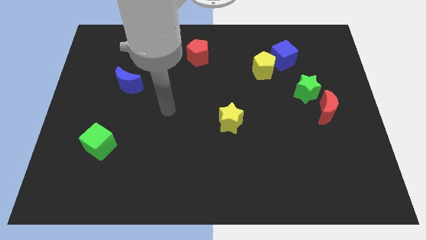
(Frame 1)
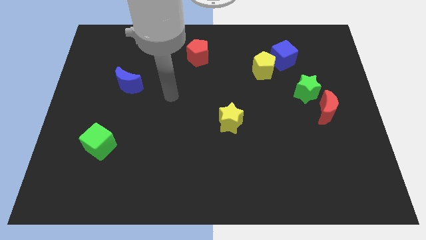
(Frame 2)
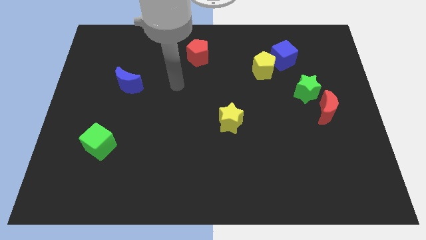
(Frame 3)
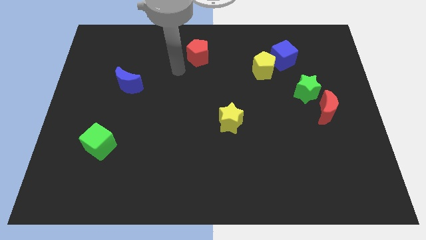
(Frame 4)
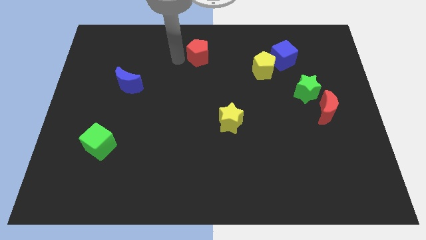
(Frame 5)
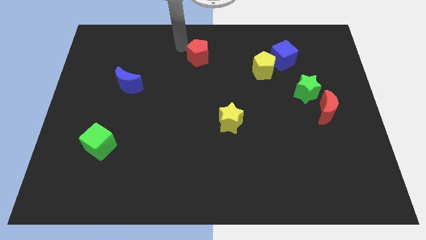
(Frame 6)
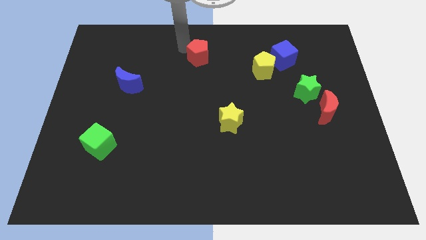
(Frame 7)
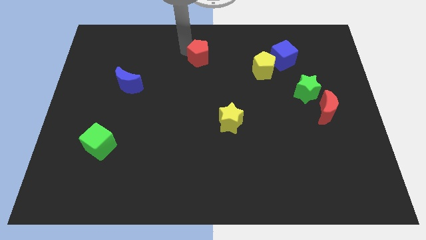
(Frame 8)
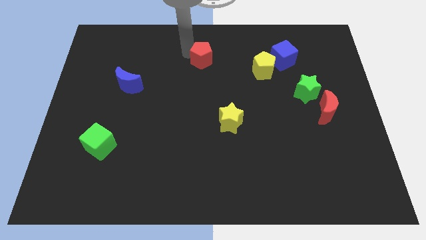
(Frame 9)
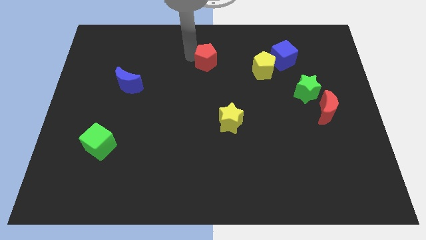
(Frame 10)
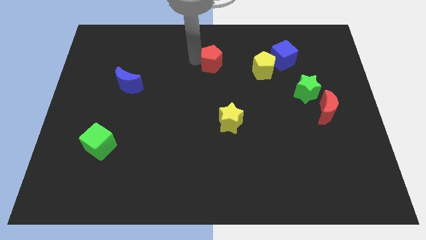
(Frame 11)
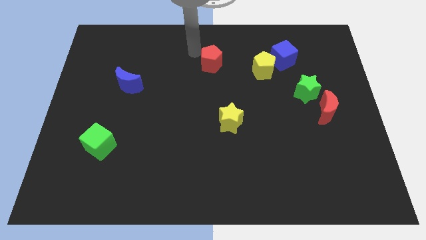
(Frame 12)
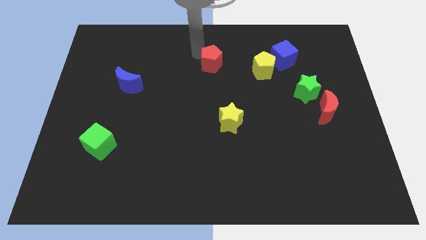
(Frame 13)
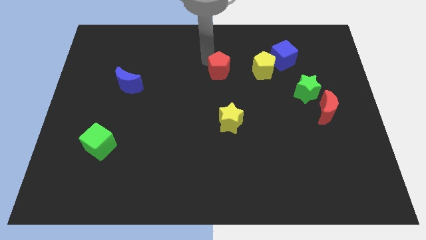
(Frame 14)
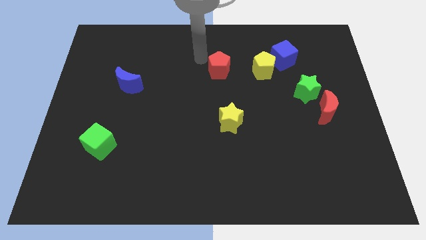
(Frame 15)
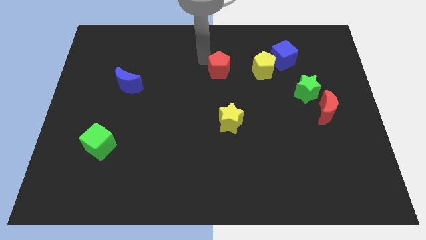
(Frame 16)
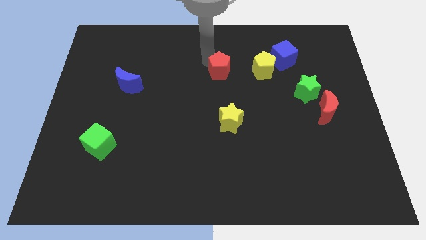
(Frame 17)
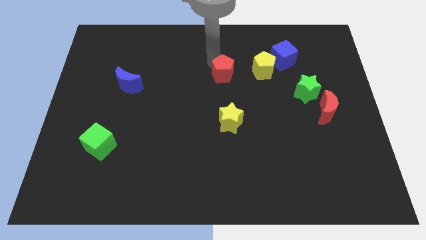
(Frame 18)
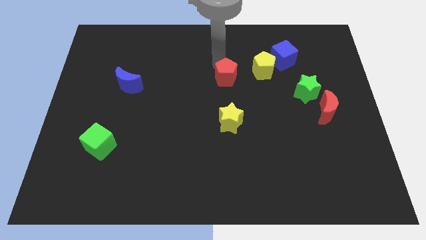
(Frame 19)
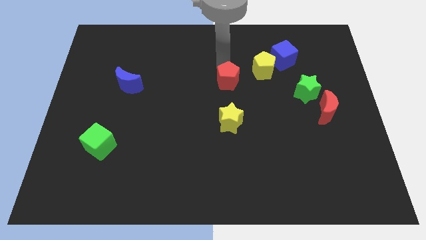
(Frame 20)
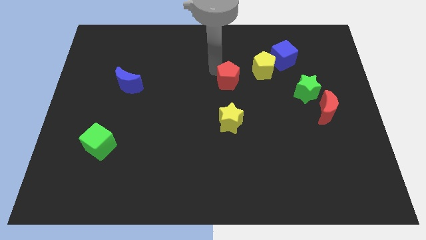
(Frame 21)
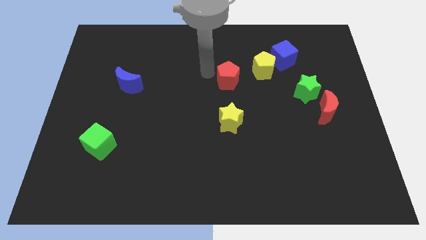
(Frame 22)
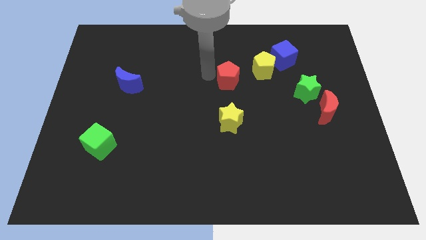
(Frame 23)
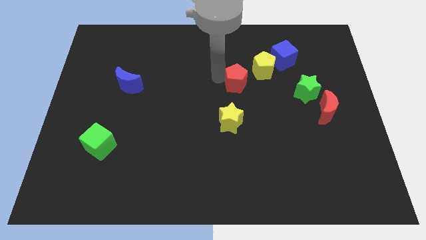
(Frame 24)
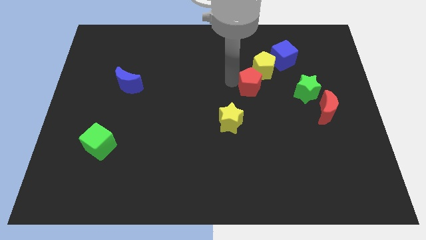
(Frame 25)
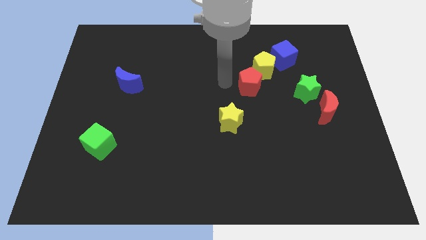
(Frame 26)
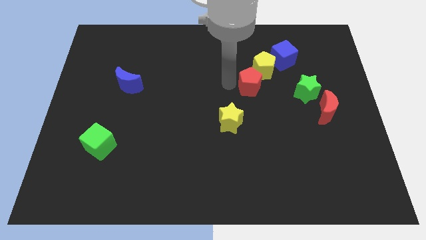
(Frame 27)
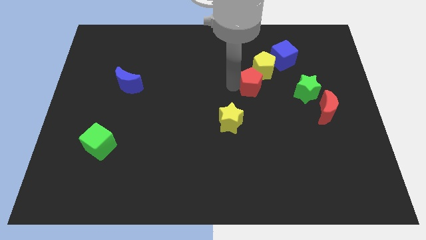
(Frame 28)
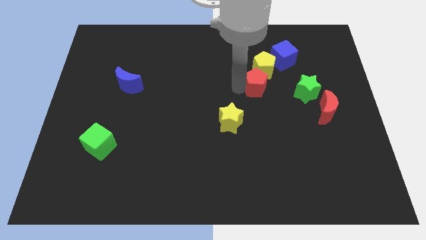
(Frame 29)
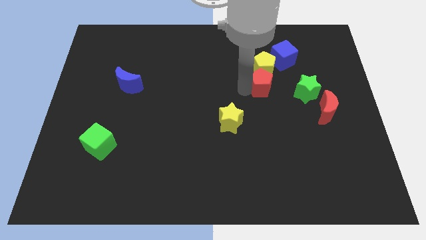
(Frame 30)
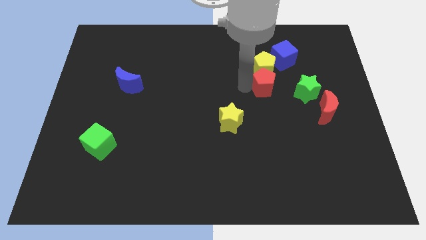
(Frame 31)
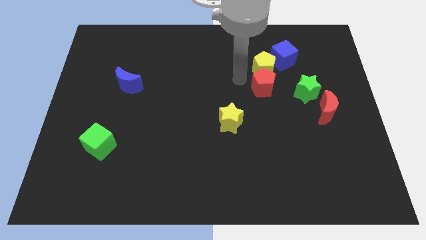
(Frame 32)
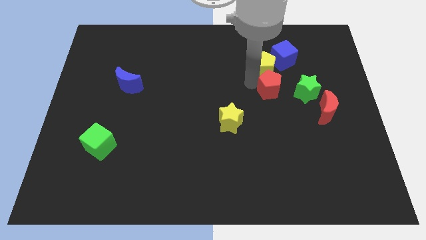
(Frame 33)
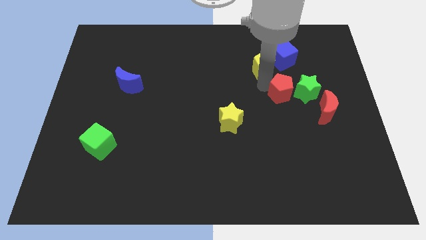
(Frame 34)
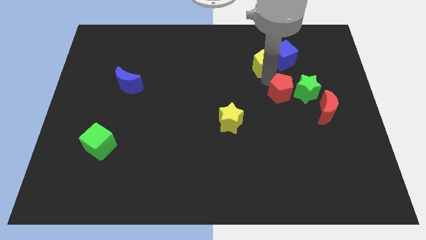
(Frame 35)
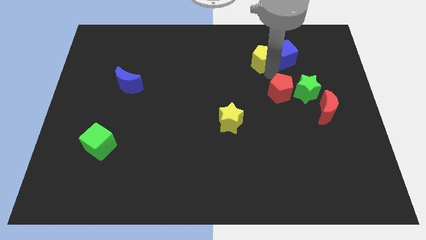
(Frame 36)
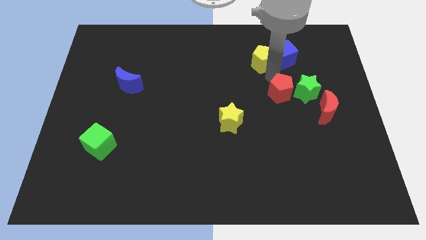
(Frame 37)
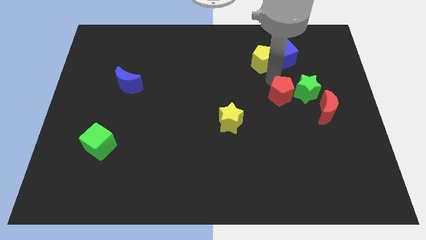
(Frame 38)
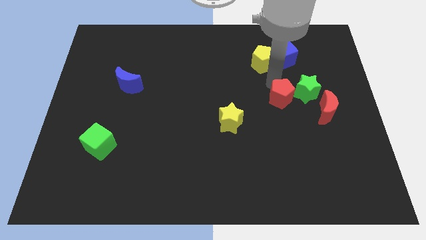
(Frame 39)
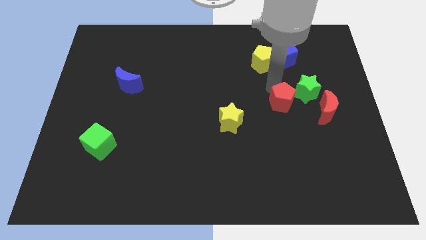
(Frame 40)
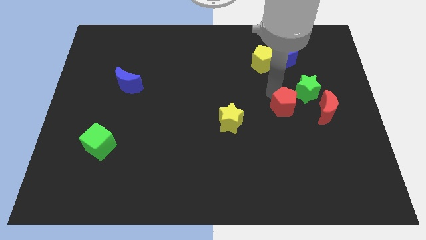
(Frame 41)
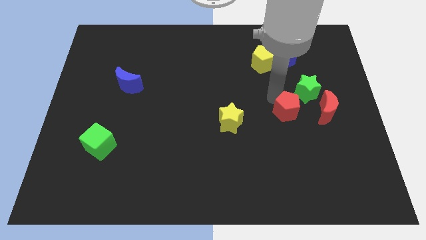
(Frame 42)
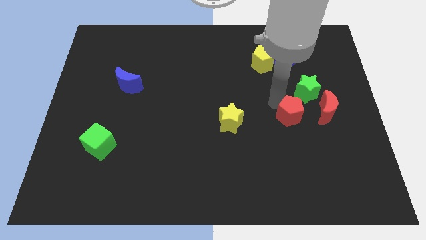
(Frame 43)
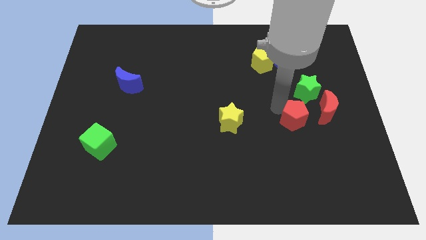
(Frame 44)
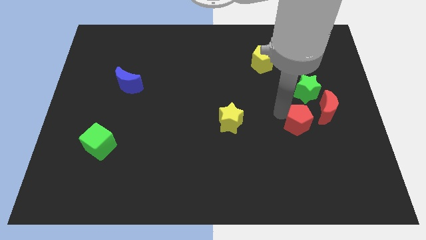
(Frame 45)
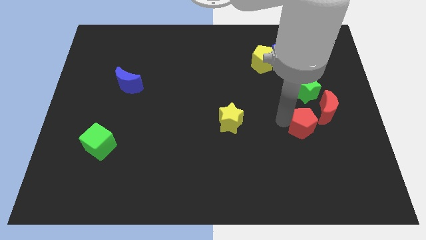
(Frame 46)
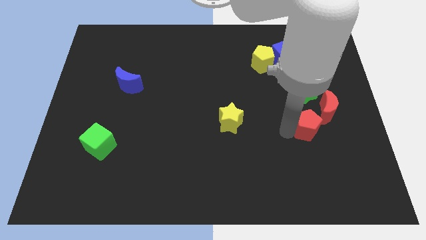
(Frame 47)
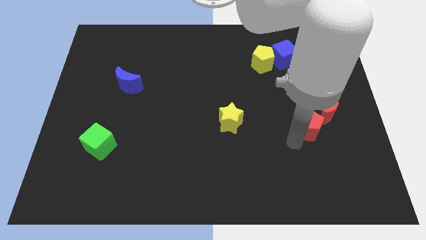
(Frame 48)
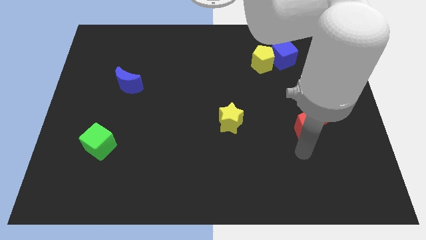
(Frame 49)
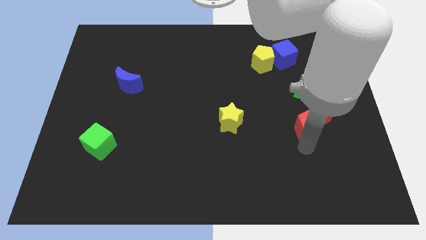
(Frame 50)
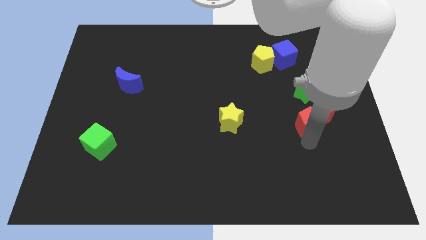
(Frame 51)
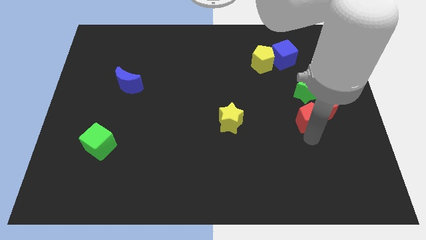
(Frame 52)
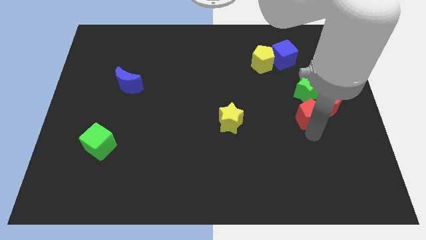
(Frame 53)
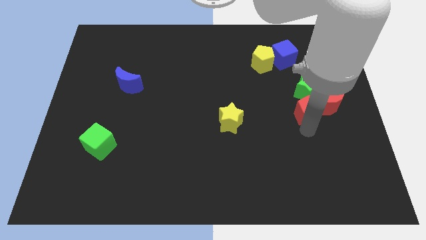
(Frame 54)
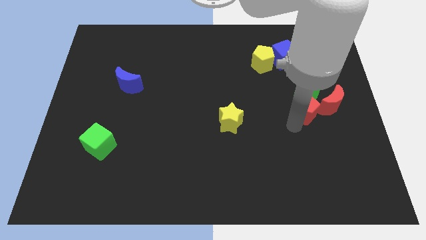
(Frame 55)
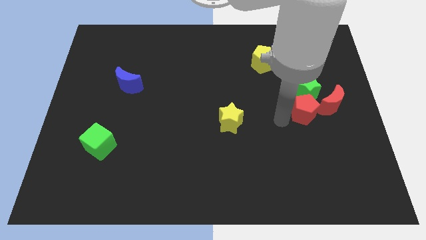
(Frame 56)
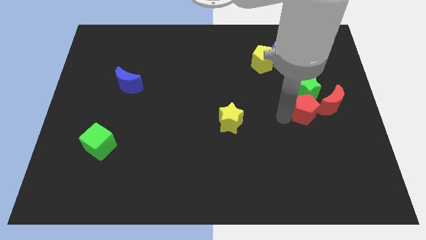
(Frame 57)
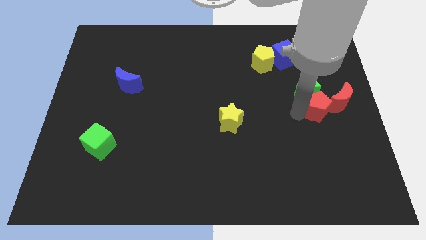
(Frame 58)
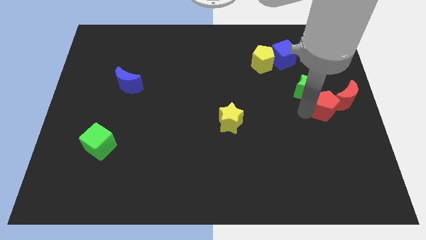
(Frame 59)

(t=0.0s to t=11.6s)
put the red pentagon close to the red moon

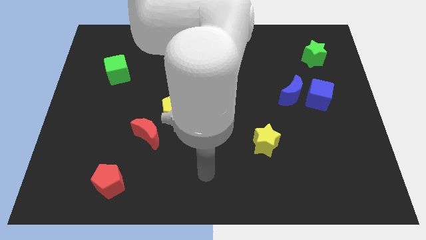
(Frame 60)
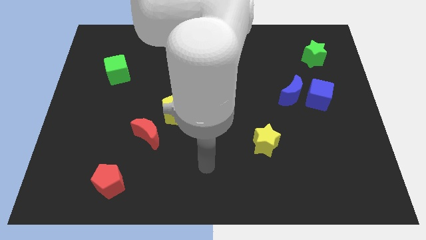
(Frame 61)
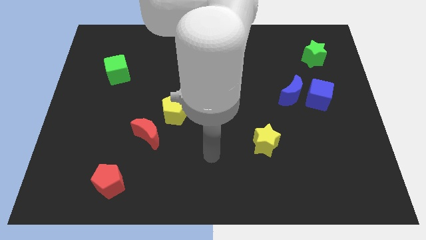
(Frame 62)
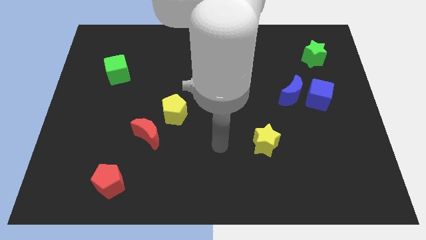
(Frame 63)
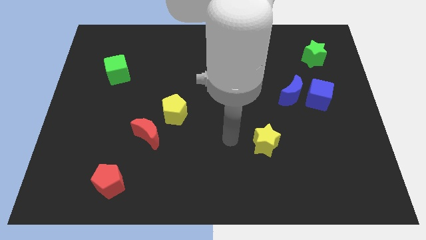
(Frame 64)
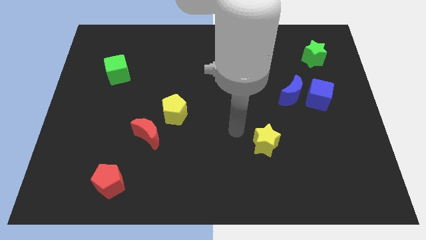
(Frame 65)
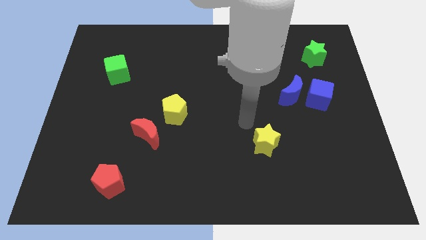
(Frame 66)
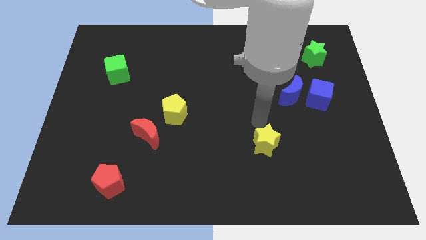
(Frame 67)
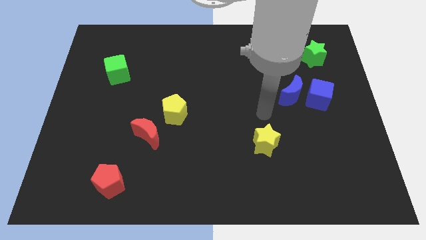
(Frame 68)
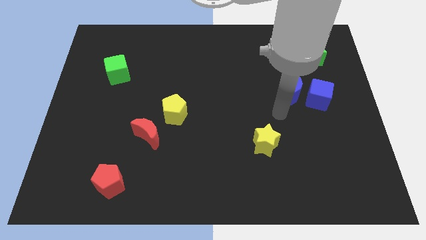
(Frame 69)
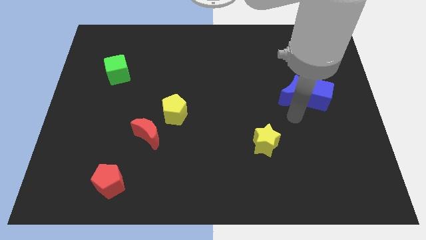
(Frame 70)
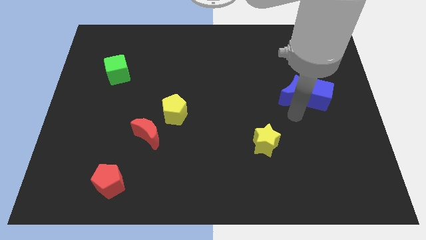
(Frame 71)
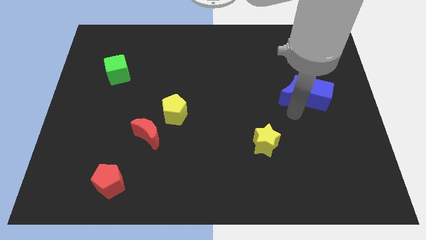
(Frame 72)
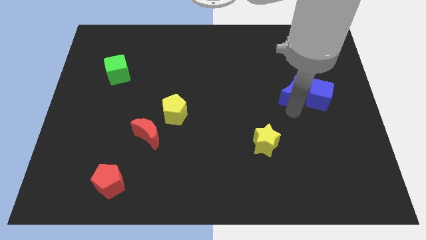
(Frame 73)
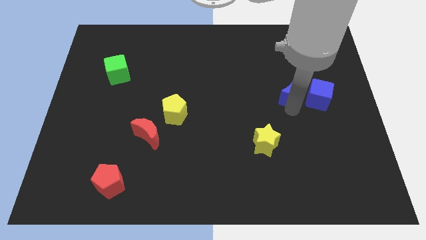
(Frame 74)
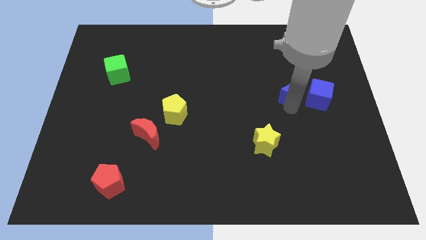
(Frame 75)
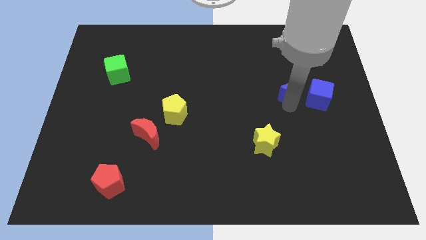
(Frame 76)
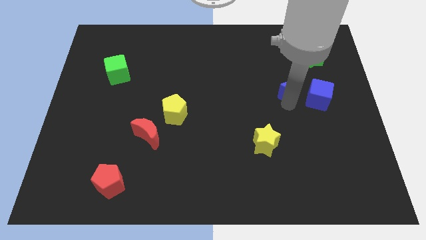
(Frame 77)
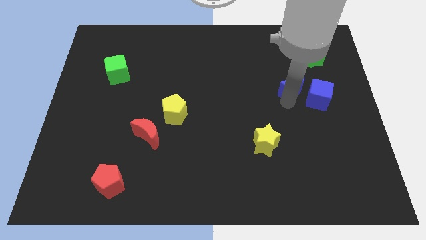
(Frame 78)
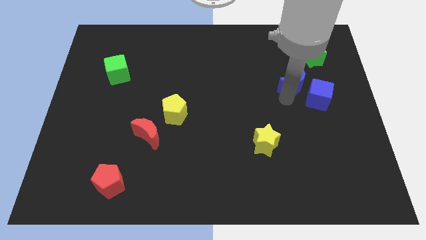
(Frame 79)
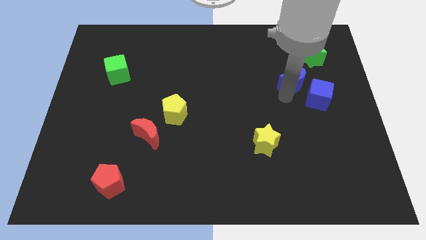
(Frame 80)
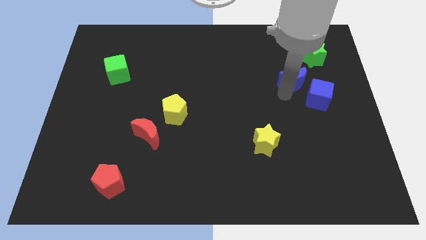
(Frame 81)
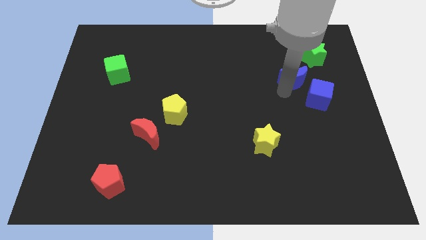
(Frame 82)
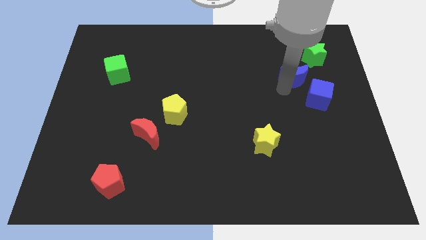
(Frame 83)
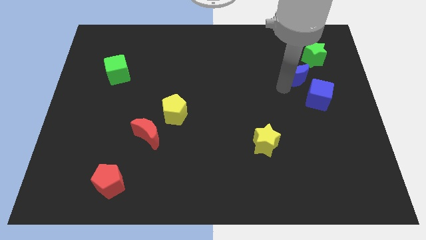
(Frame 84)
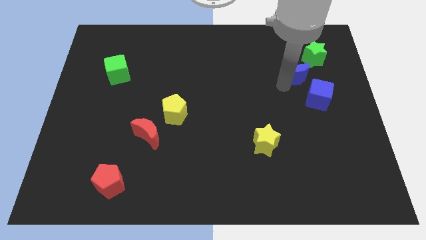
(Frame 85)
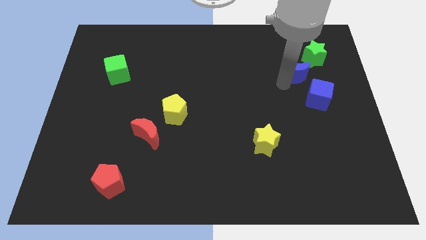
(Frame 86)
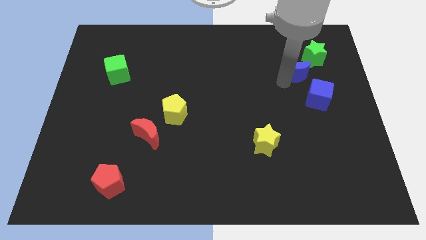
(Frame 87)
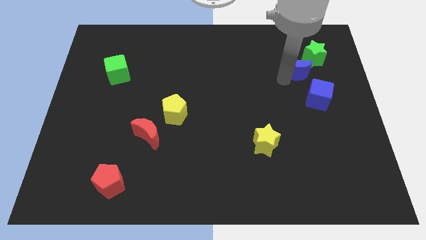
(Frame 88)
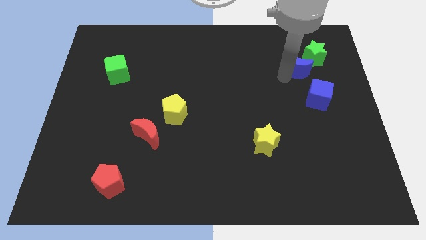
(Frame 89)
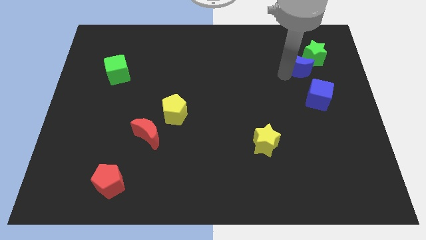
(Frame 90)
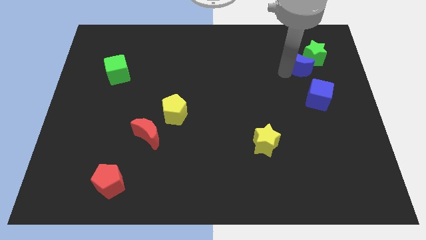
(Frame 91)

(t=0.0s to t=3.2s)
put the blue moon towards the green star
